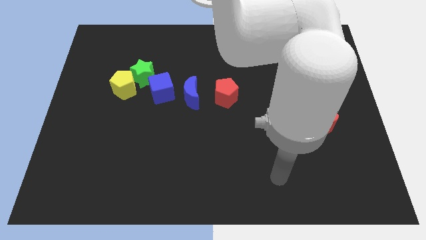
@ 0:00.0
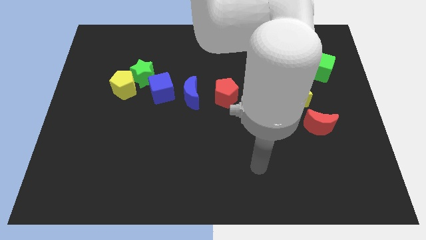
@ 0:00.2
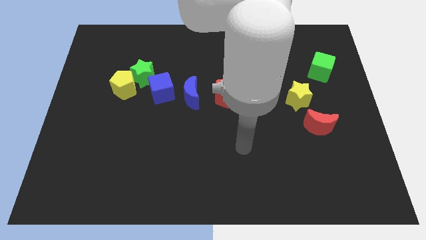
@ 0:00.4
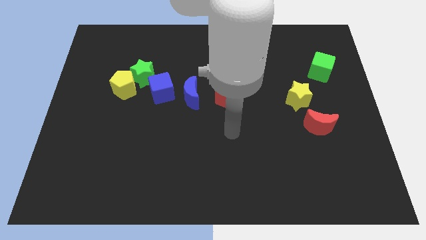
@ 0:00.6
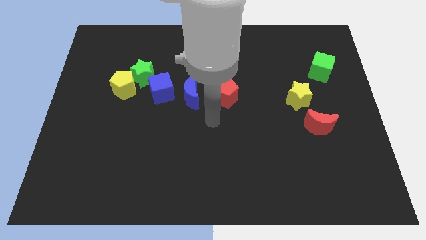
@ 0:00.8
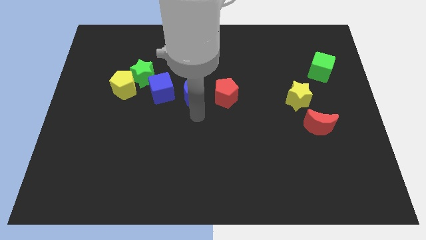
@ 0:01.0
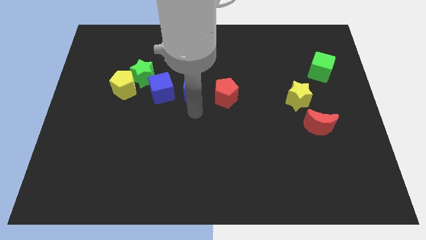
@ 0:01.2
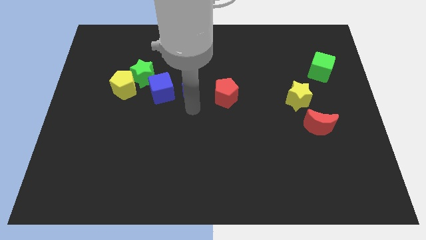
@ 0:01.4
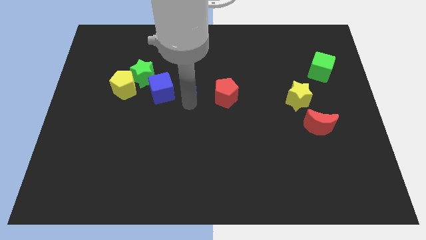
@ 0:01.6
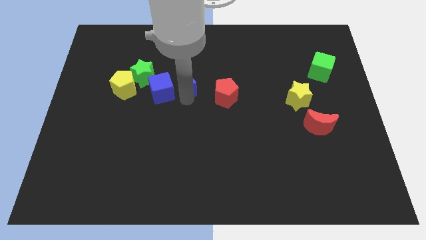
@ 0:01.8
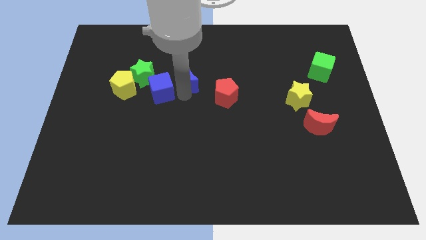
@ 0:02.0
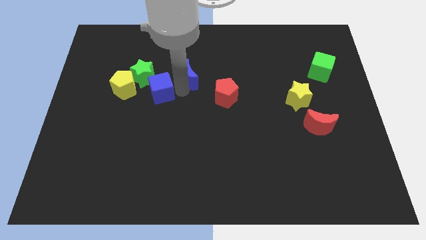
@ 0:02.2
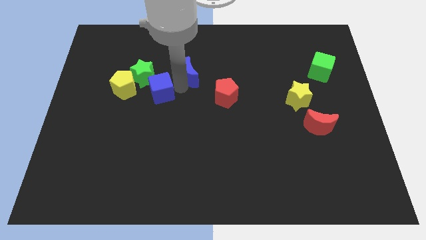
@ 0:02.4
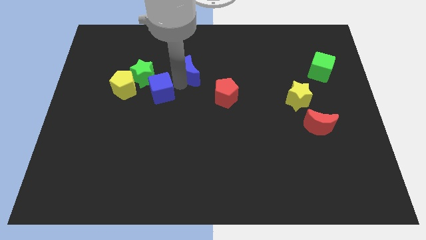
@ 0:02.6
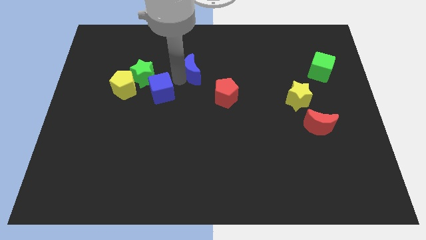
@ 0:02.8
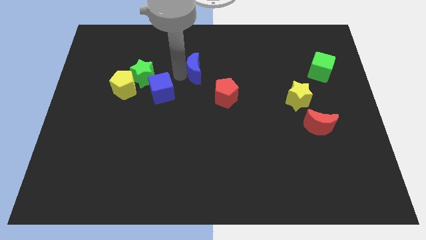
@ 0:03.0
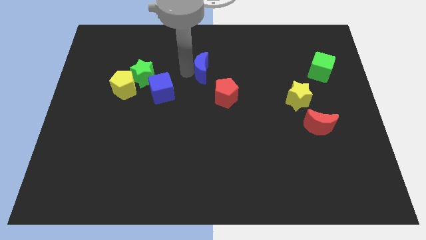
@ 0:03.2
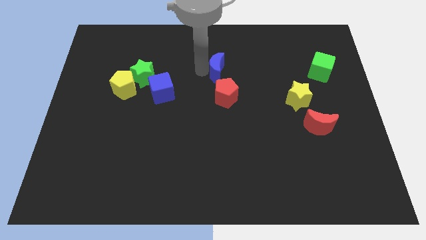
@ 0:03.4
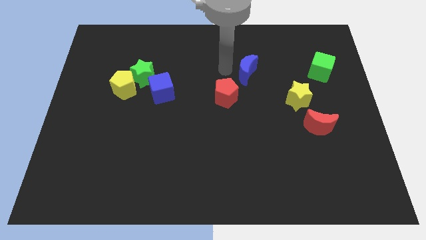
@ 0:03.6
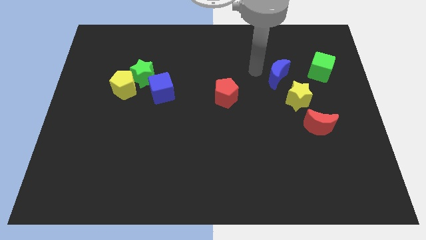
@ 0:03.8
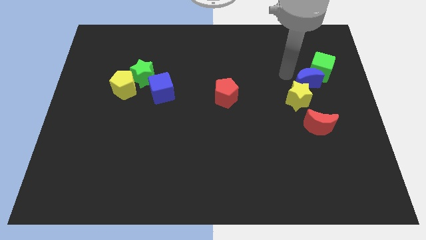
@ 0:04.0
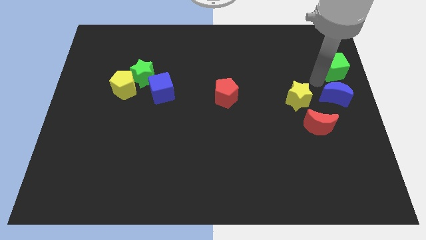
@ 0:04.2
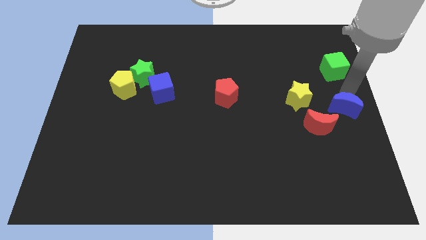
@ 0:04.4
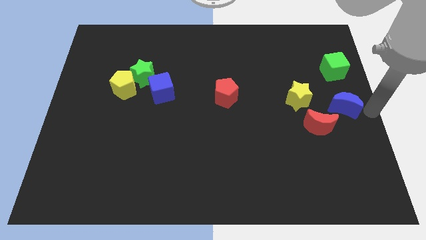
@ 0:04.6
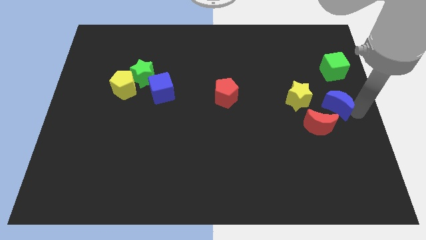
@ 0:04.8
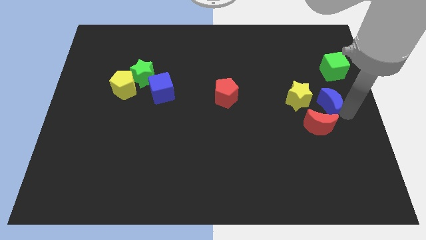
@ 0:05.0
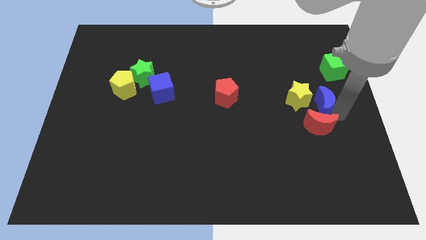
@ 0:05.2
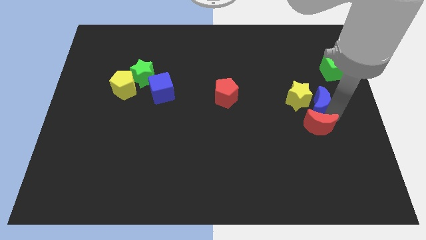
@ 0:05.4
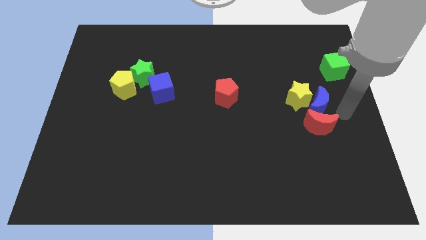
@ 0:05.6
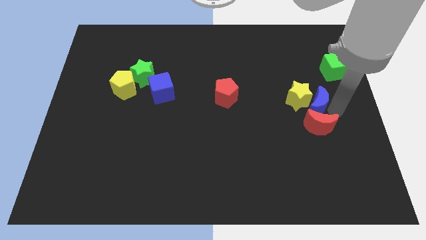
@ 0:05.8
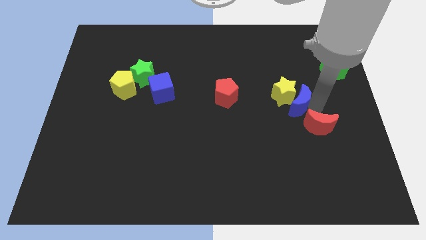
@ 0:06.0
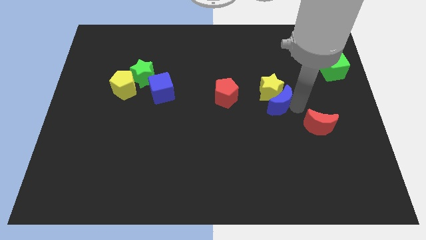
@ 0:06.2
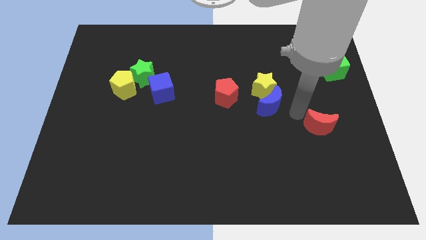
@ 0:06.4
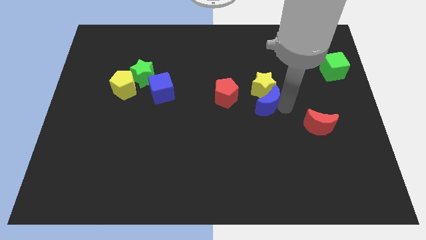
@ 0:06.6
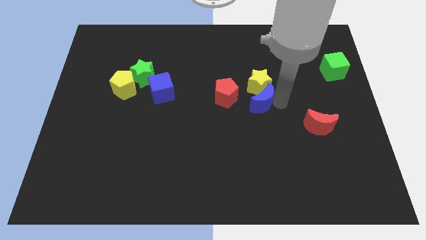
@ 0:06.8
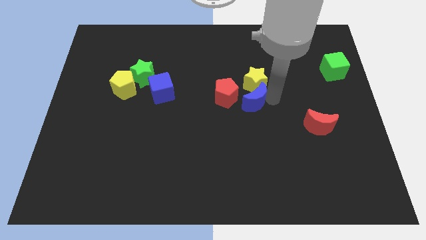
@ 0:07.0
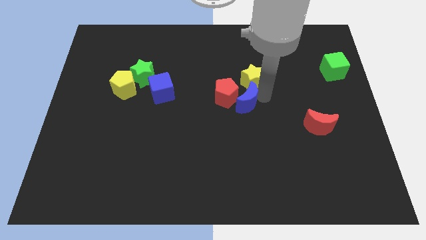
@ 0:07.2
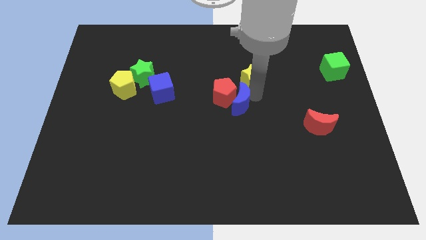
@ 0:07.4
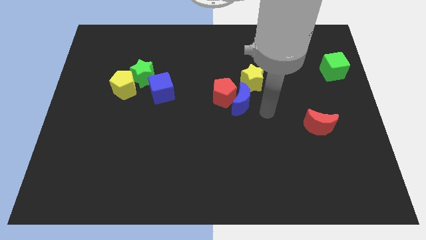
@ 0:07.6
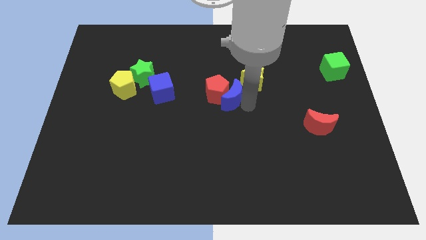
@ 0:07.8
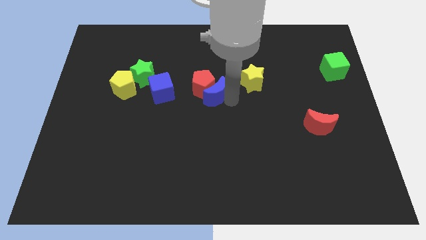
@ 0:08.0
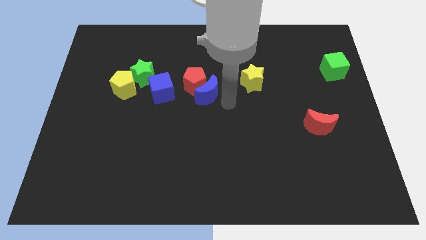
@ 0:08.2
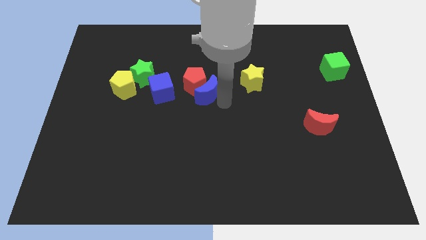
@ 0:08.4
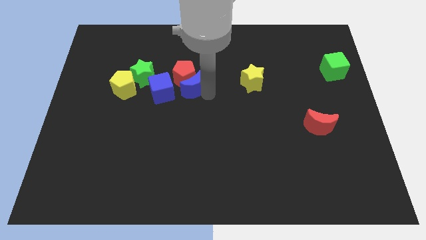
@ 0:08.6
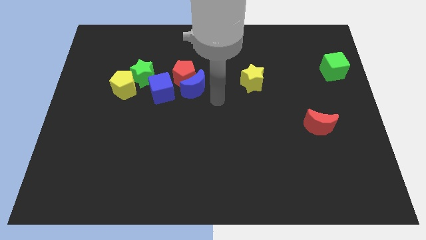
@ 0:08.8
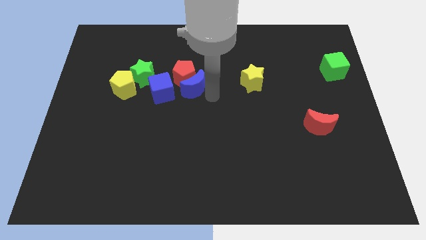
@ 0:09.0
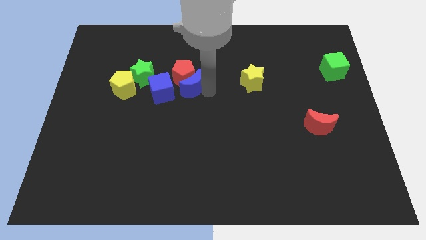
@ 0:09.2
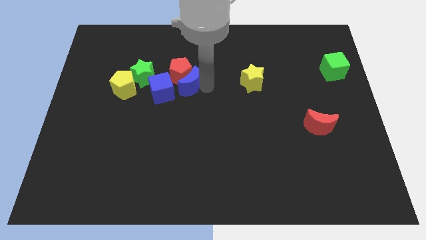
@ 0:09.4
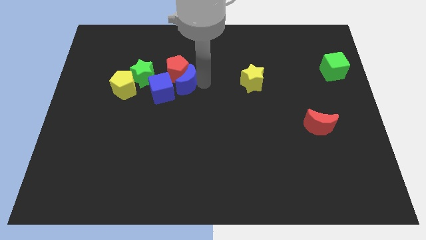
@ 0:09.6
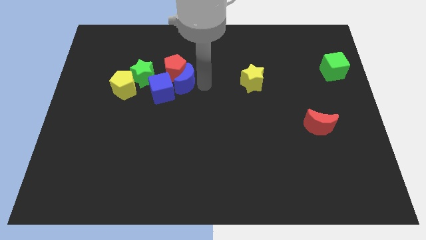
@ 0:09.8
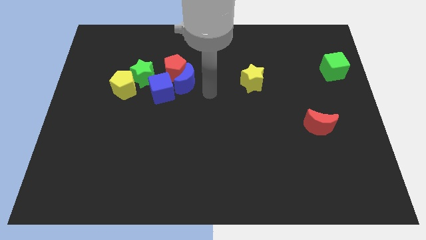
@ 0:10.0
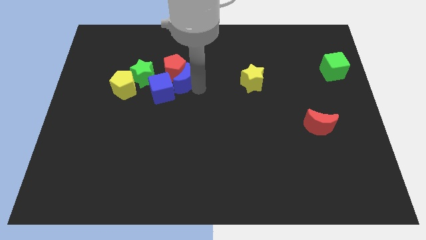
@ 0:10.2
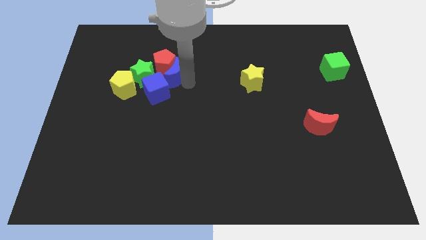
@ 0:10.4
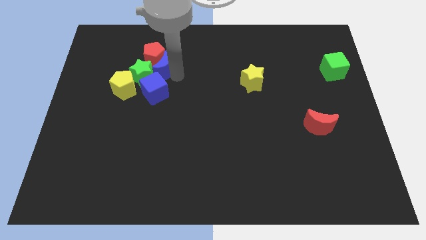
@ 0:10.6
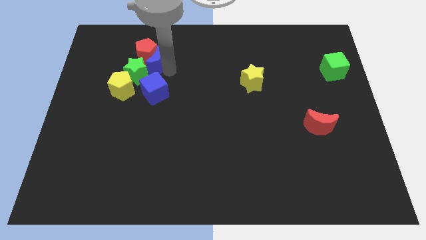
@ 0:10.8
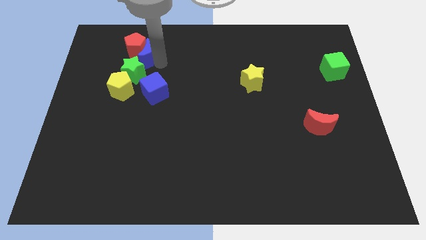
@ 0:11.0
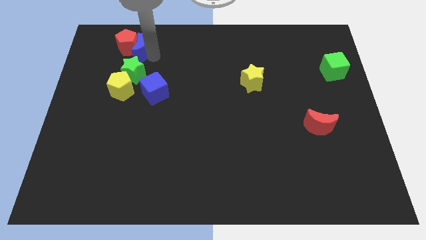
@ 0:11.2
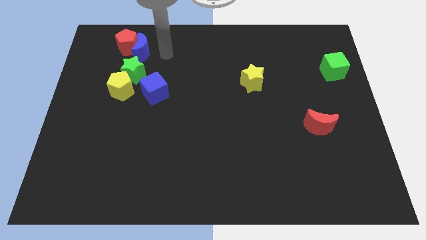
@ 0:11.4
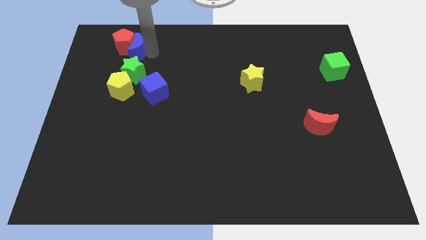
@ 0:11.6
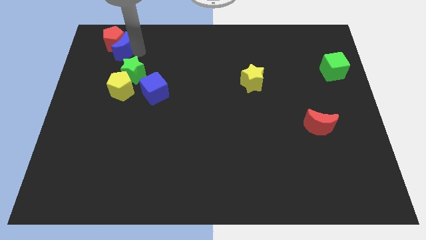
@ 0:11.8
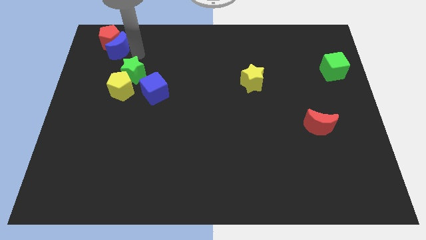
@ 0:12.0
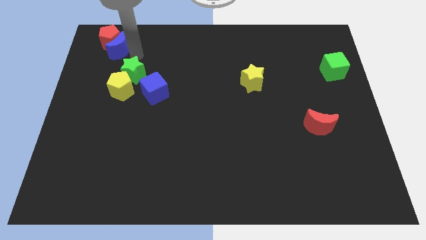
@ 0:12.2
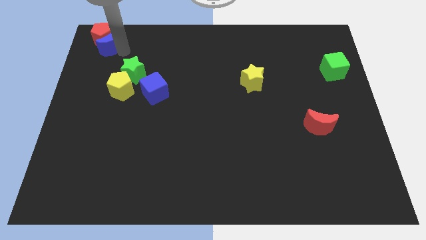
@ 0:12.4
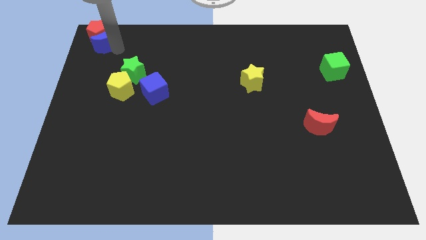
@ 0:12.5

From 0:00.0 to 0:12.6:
slide the blue moon to the upper left corner
